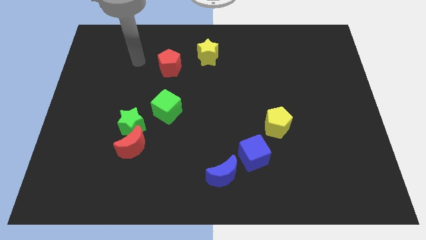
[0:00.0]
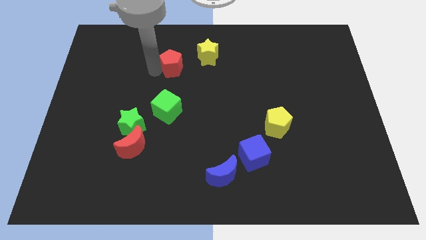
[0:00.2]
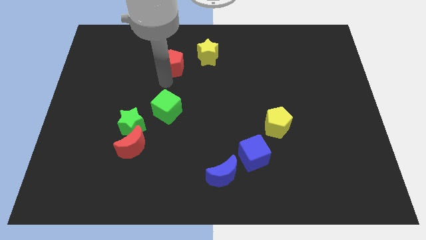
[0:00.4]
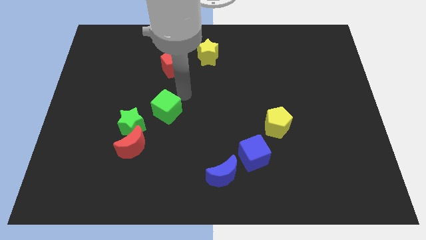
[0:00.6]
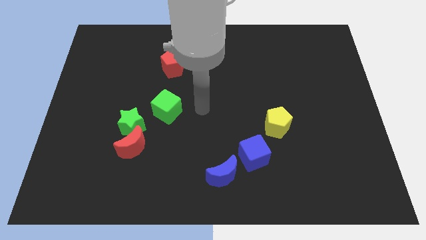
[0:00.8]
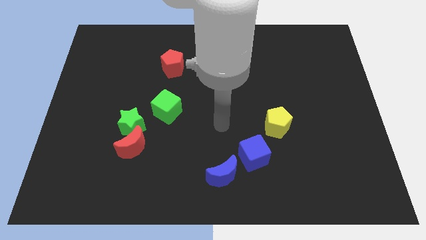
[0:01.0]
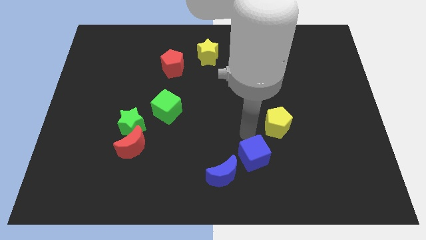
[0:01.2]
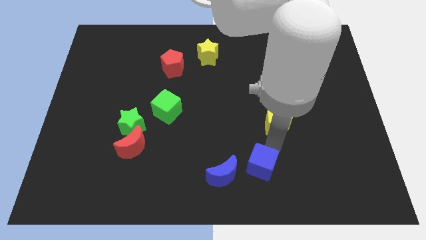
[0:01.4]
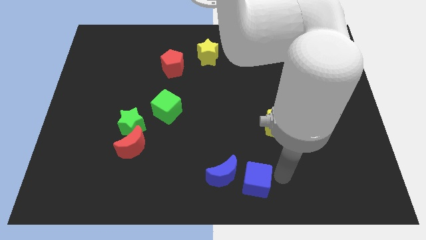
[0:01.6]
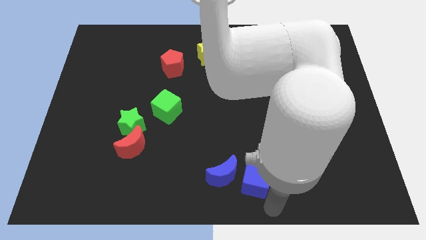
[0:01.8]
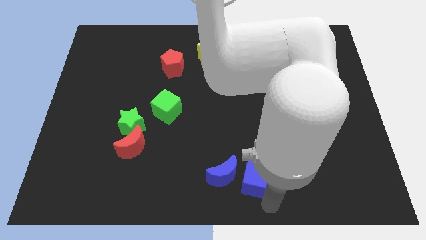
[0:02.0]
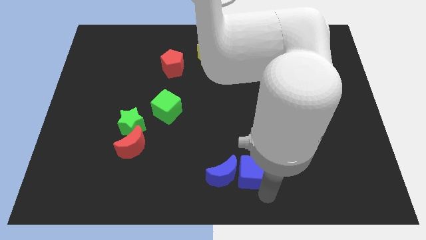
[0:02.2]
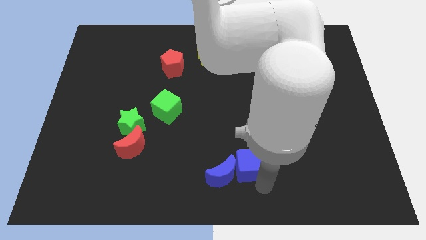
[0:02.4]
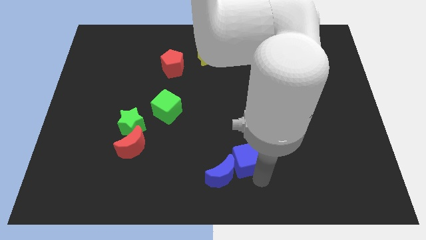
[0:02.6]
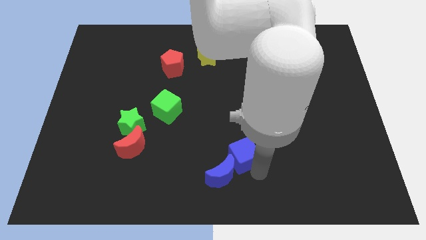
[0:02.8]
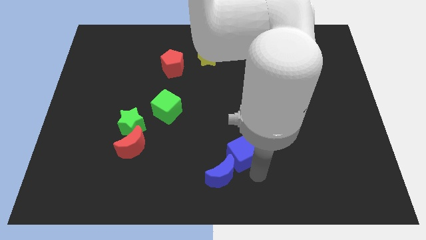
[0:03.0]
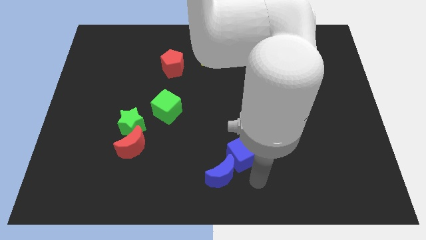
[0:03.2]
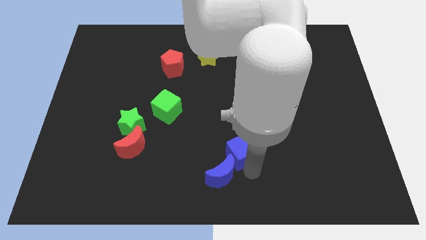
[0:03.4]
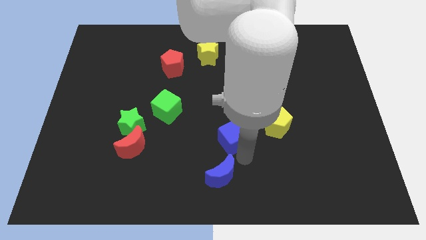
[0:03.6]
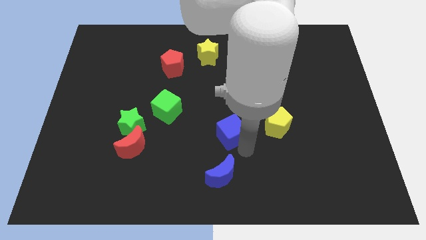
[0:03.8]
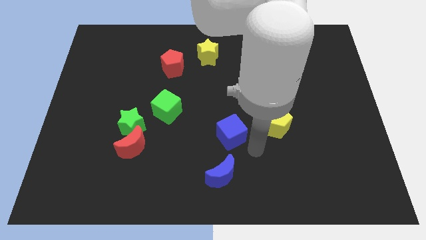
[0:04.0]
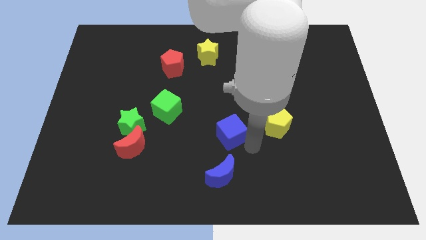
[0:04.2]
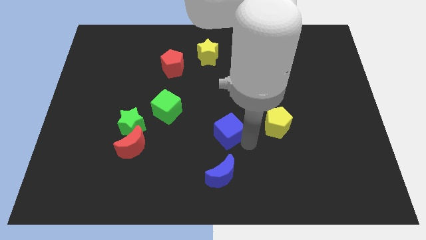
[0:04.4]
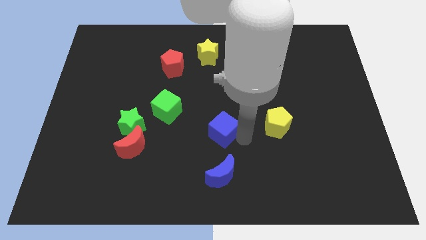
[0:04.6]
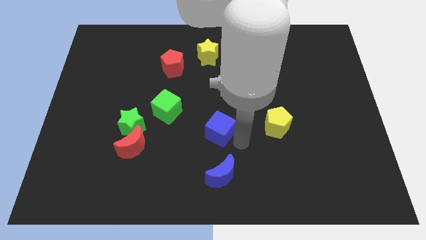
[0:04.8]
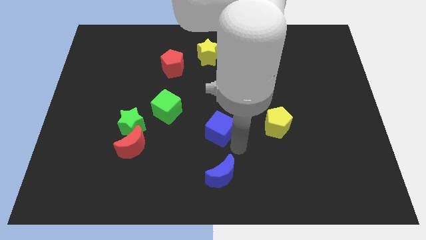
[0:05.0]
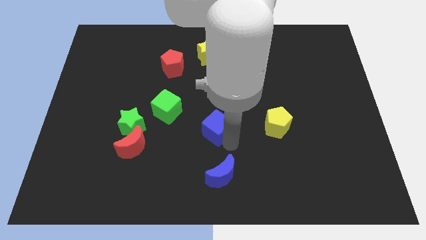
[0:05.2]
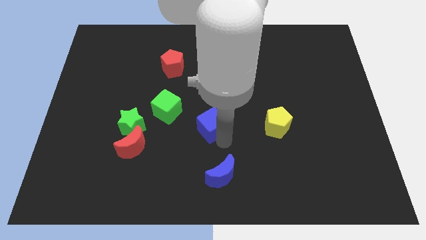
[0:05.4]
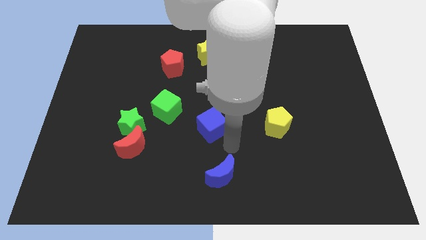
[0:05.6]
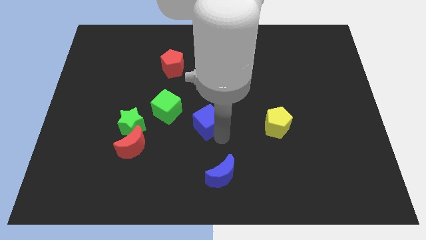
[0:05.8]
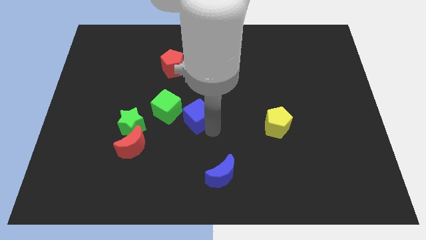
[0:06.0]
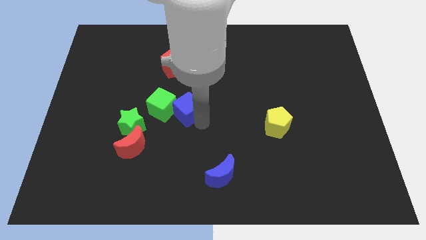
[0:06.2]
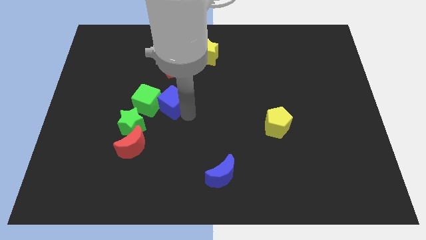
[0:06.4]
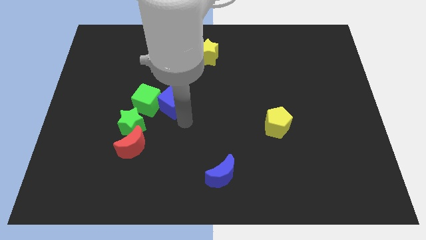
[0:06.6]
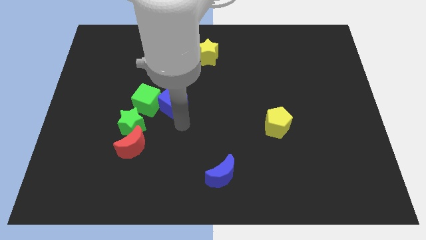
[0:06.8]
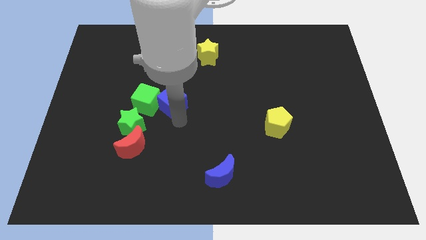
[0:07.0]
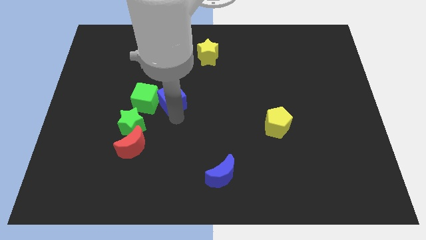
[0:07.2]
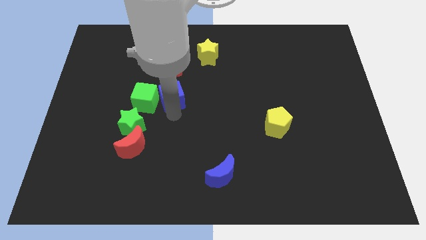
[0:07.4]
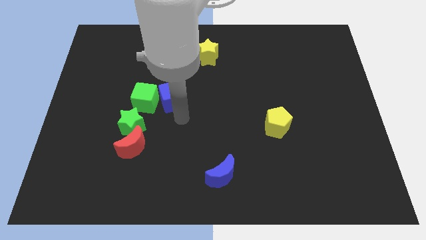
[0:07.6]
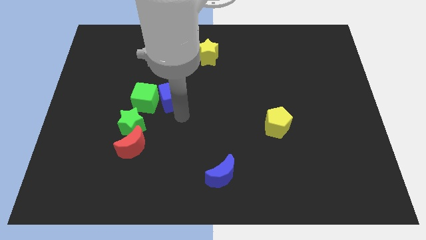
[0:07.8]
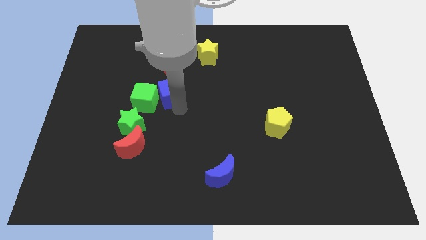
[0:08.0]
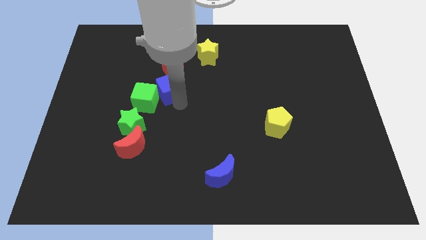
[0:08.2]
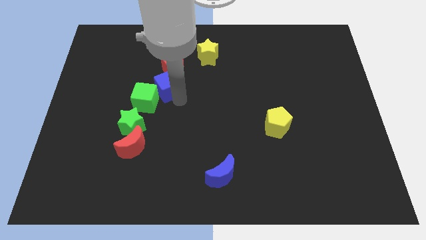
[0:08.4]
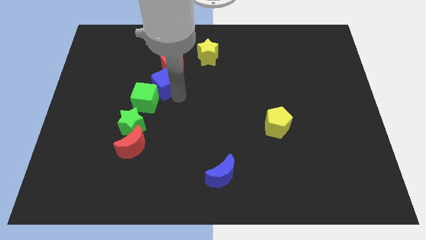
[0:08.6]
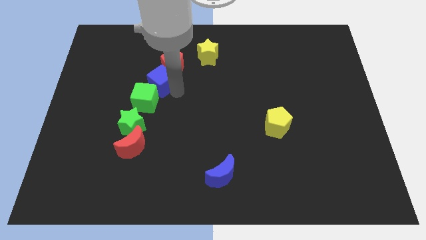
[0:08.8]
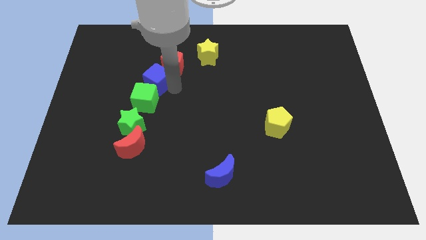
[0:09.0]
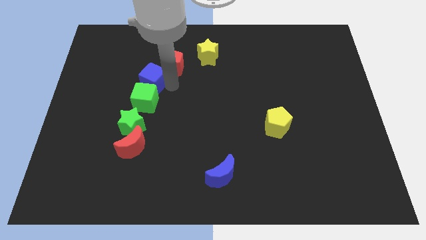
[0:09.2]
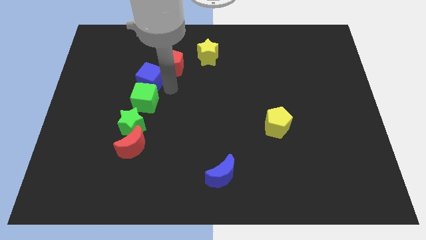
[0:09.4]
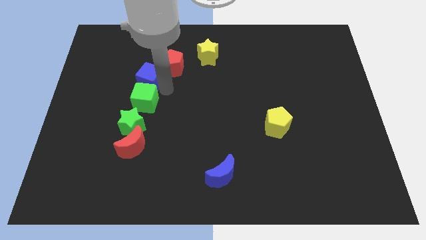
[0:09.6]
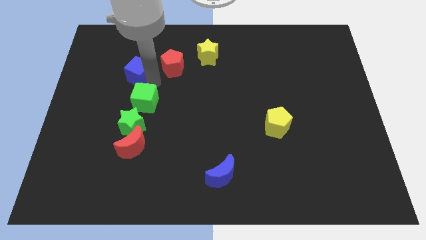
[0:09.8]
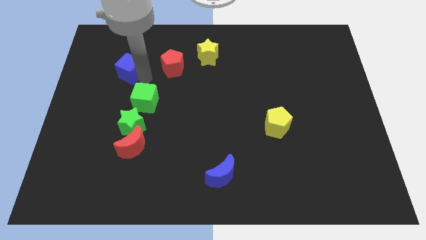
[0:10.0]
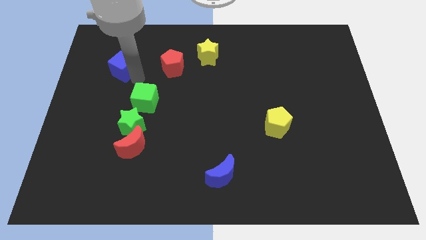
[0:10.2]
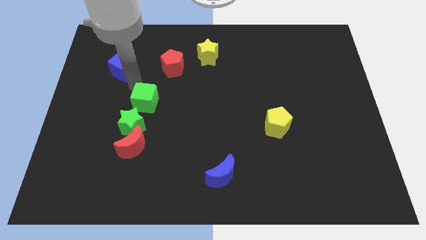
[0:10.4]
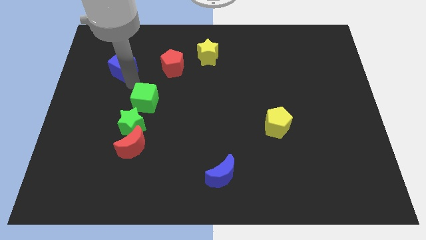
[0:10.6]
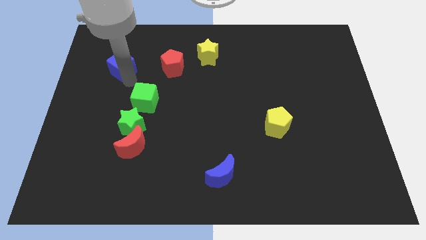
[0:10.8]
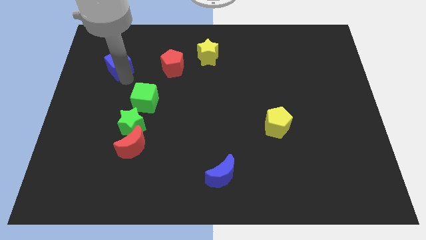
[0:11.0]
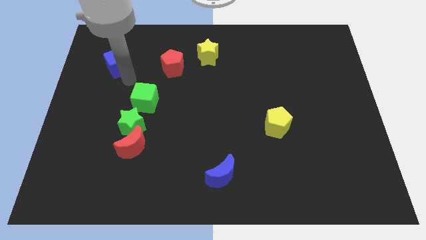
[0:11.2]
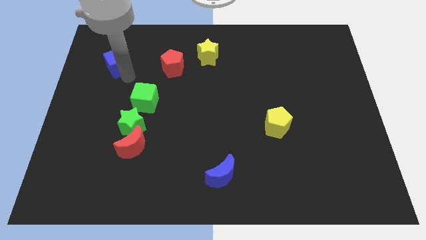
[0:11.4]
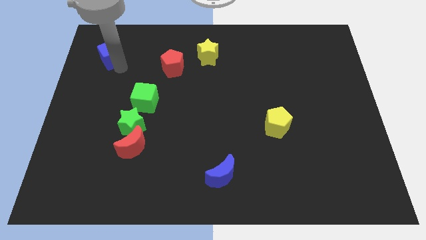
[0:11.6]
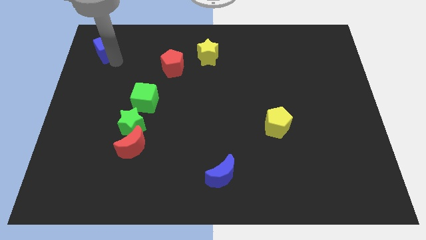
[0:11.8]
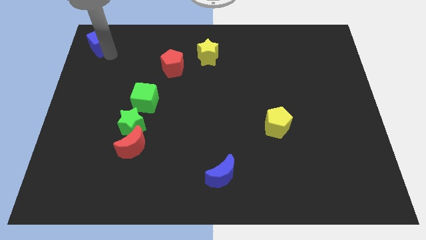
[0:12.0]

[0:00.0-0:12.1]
slide the blue cube to the top left of the board

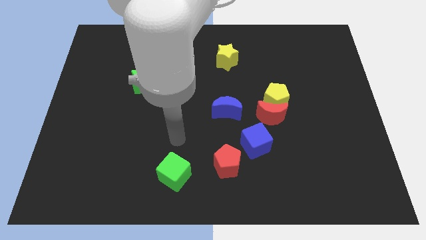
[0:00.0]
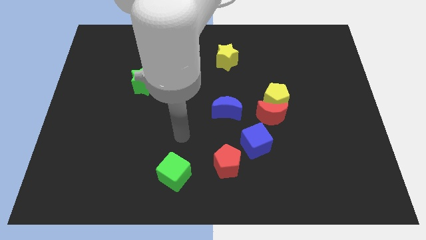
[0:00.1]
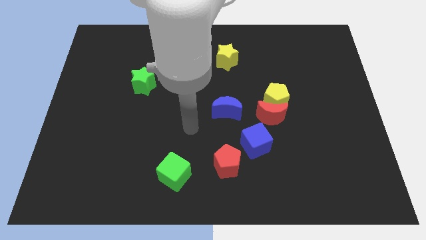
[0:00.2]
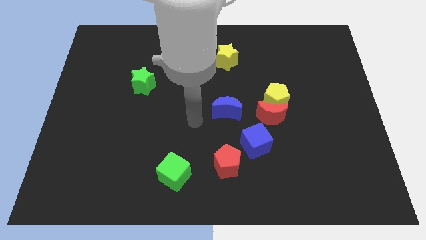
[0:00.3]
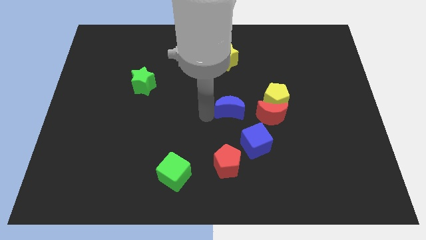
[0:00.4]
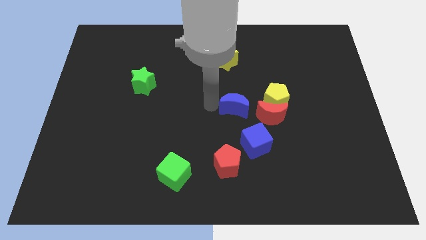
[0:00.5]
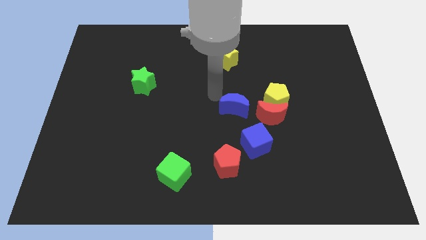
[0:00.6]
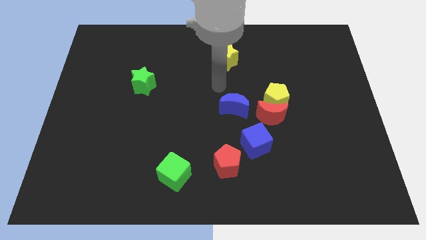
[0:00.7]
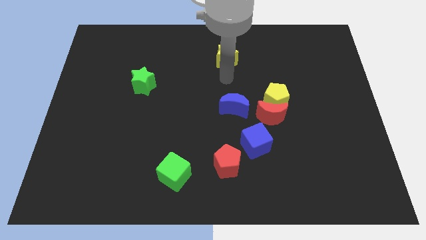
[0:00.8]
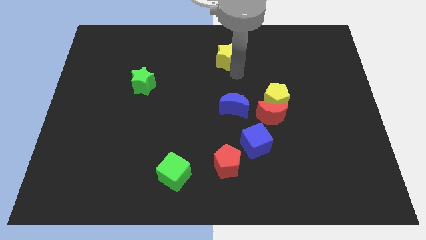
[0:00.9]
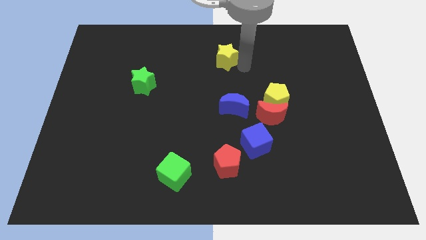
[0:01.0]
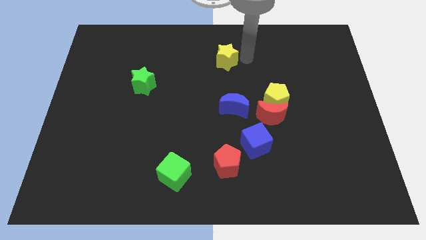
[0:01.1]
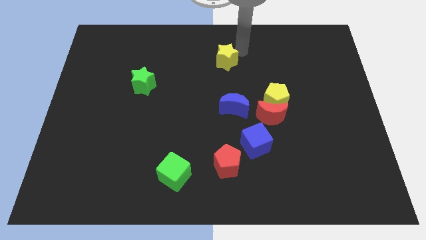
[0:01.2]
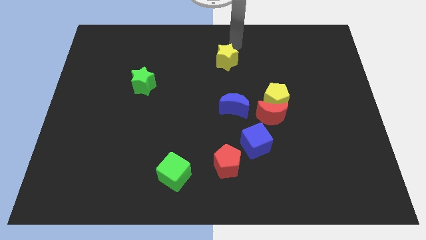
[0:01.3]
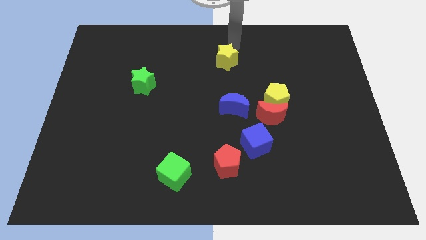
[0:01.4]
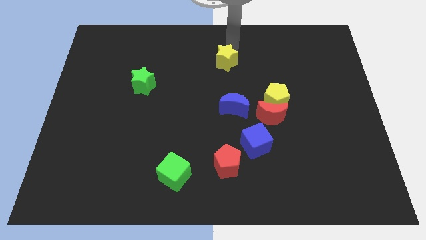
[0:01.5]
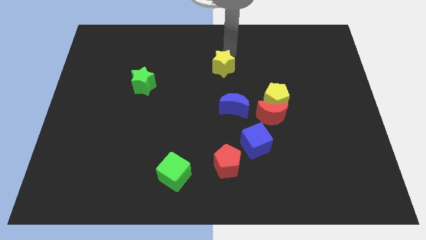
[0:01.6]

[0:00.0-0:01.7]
slide the yellow star to the center of the board
